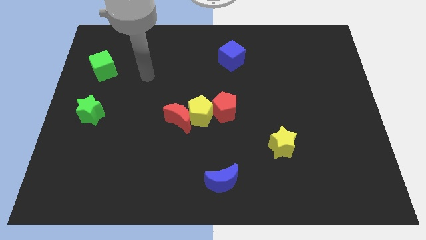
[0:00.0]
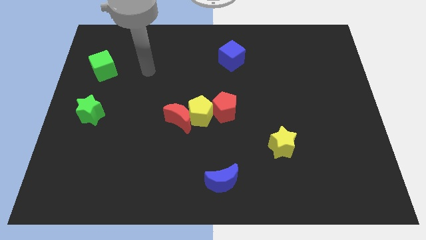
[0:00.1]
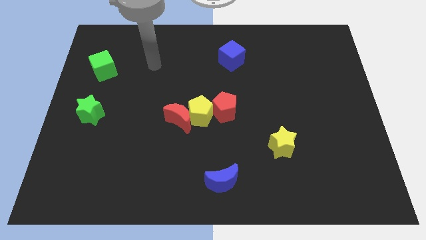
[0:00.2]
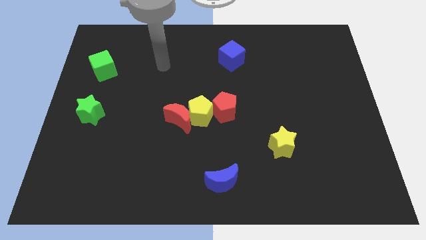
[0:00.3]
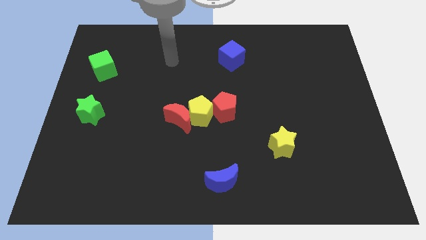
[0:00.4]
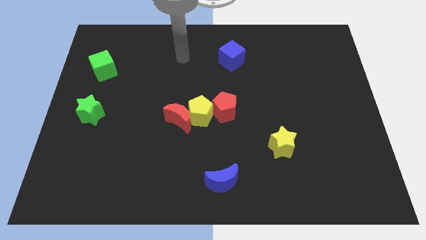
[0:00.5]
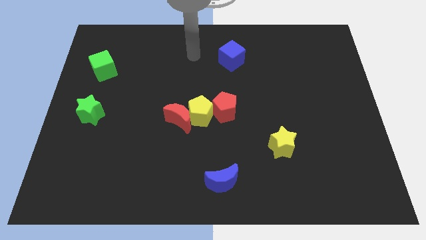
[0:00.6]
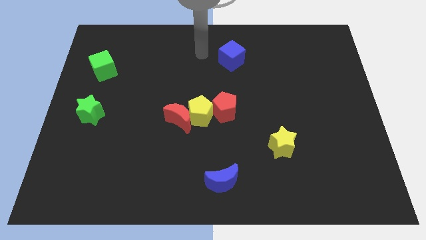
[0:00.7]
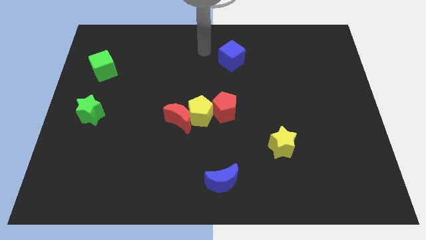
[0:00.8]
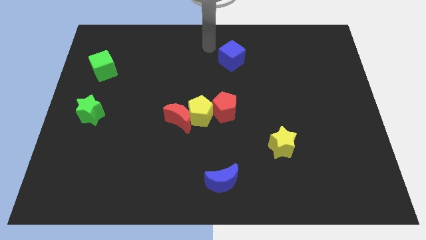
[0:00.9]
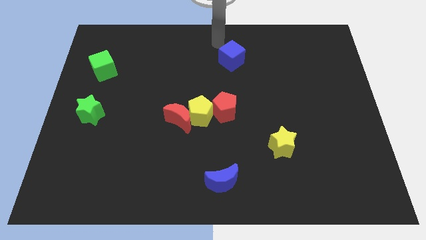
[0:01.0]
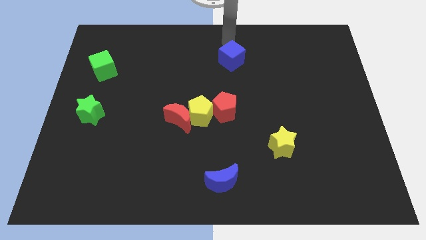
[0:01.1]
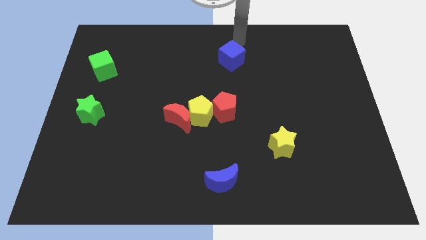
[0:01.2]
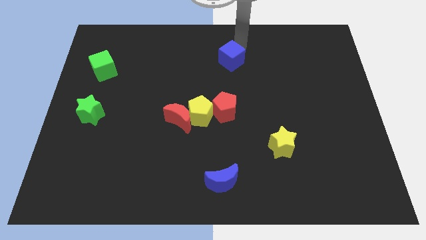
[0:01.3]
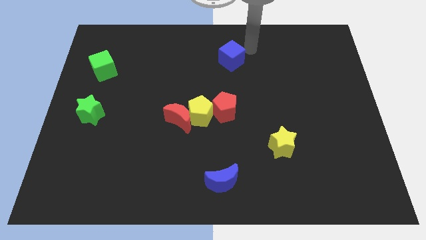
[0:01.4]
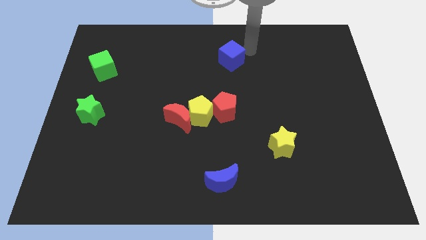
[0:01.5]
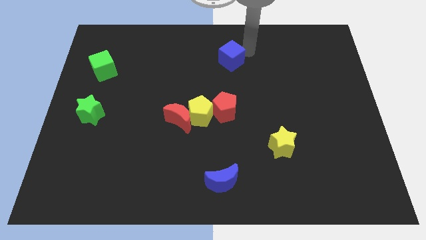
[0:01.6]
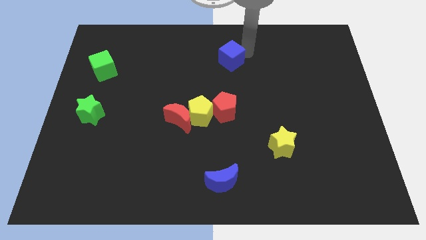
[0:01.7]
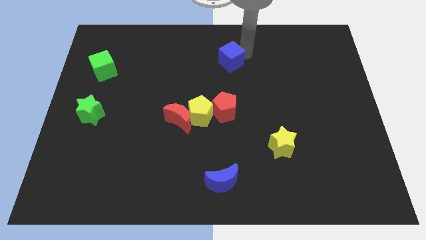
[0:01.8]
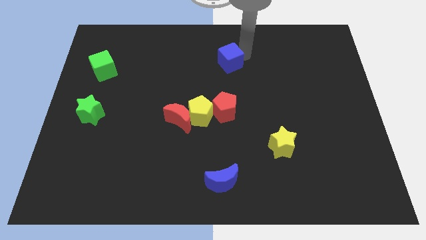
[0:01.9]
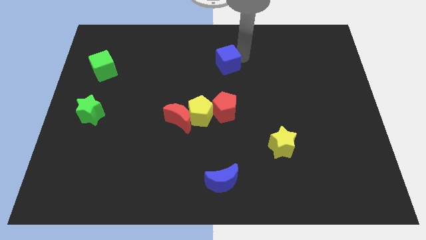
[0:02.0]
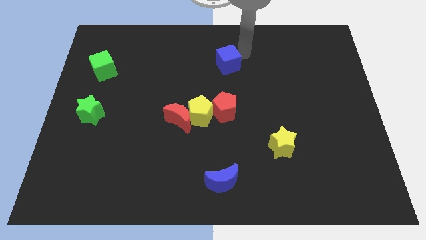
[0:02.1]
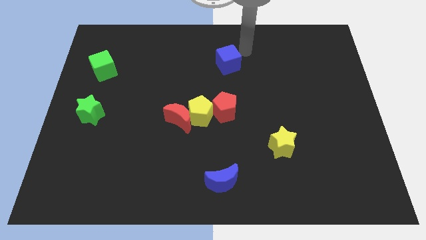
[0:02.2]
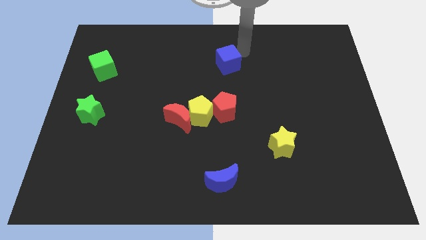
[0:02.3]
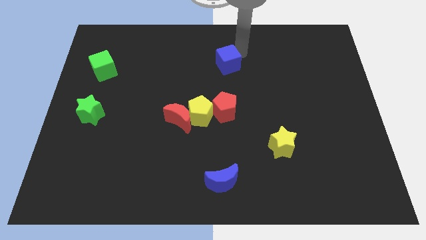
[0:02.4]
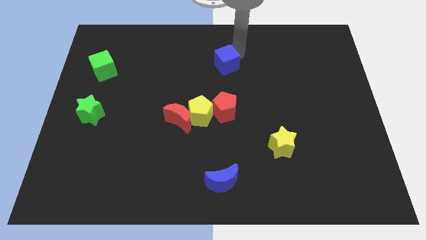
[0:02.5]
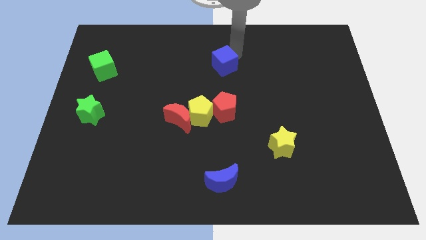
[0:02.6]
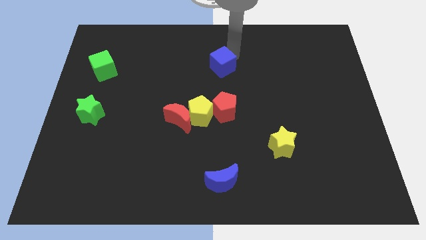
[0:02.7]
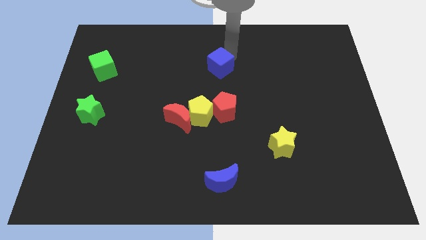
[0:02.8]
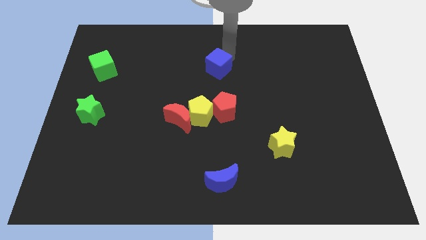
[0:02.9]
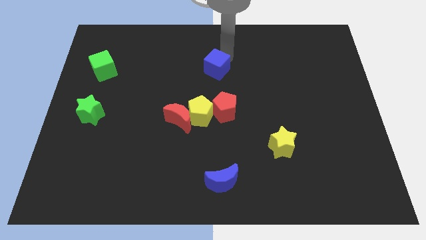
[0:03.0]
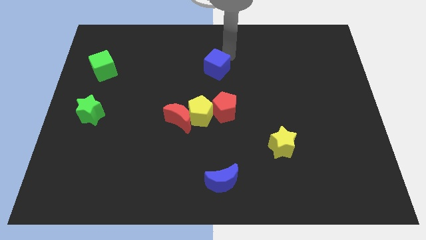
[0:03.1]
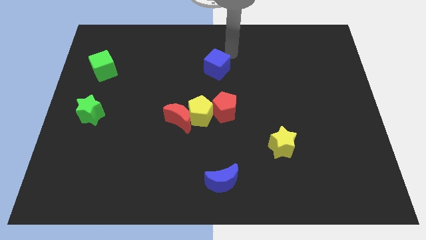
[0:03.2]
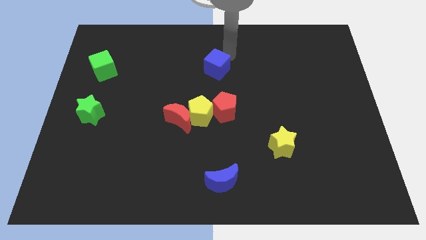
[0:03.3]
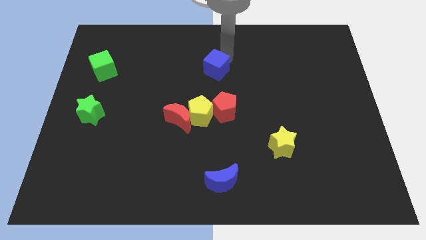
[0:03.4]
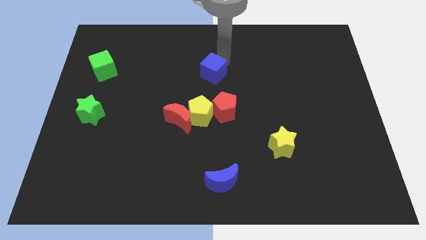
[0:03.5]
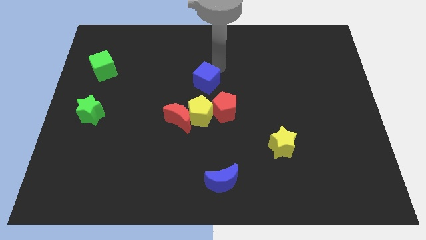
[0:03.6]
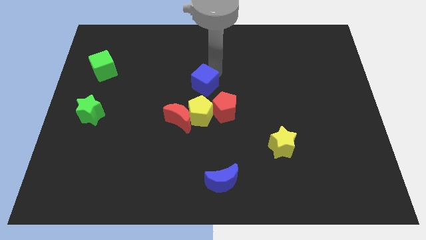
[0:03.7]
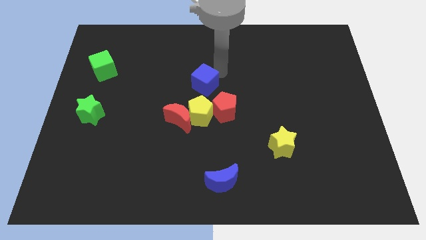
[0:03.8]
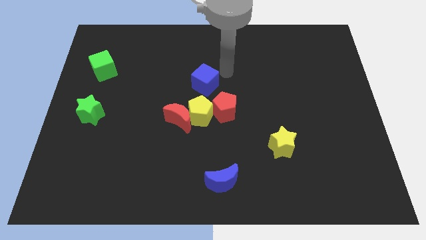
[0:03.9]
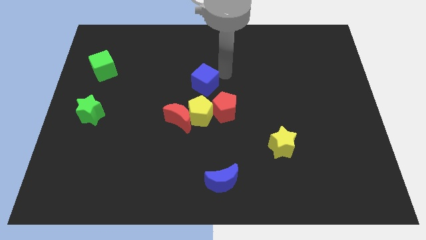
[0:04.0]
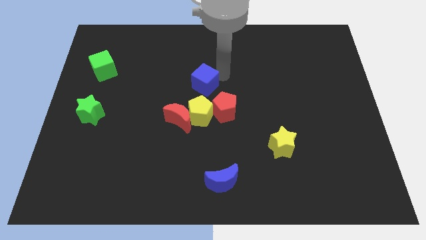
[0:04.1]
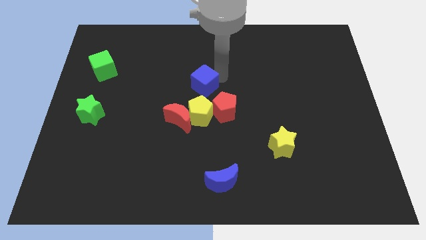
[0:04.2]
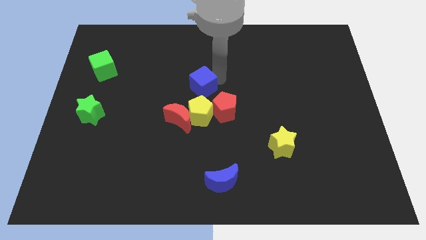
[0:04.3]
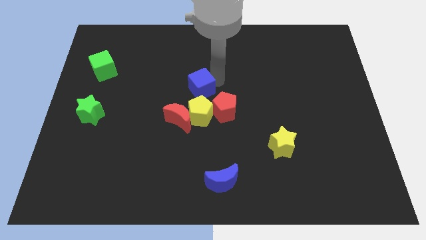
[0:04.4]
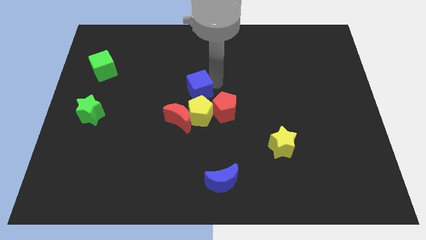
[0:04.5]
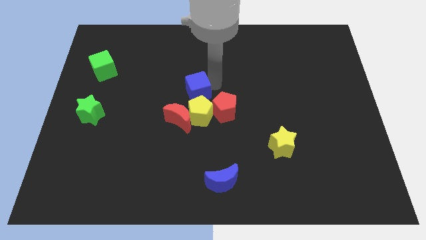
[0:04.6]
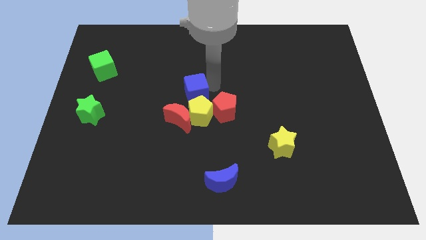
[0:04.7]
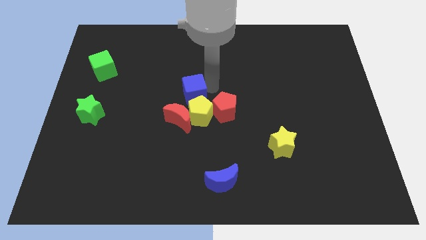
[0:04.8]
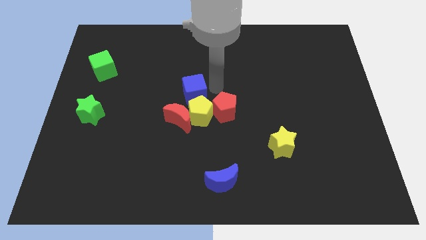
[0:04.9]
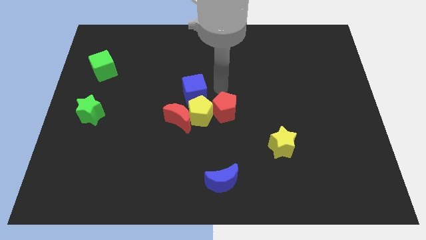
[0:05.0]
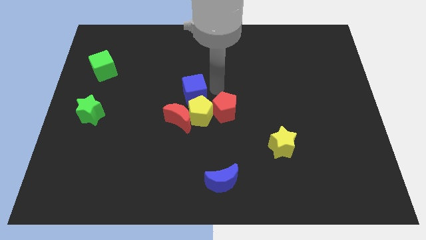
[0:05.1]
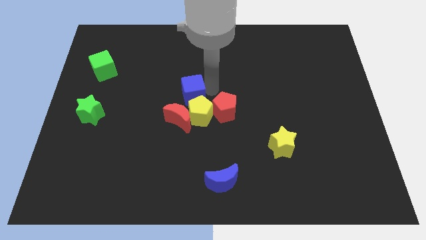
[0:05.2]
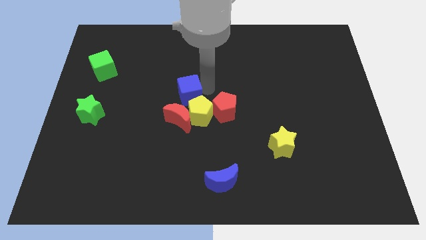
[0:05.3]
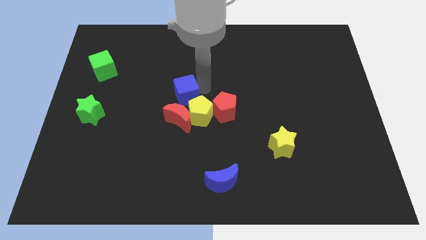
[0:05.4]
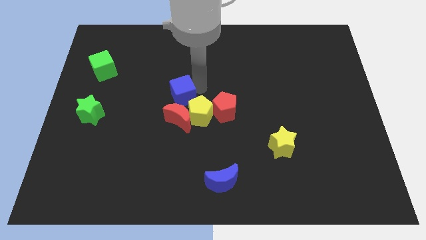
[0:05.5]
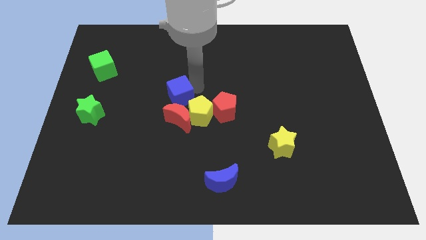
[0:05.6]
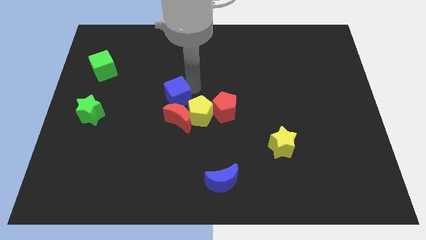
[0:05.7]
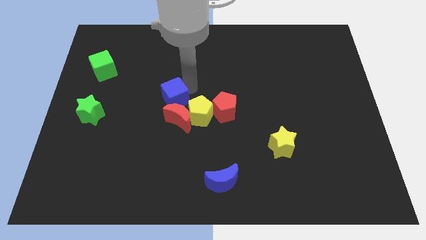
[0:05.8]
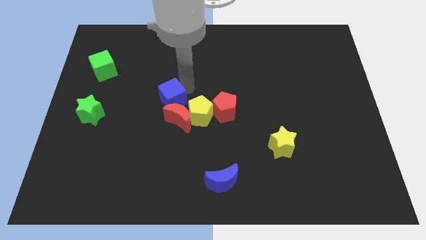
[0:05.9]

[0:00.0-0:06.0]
push the blue cube diagonally down and left

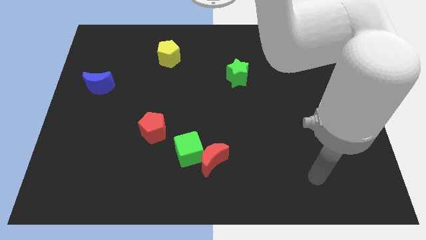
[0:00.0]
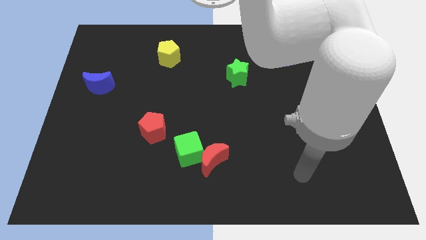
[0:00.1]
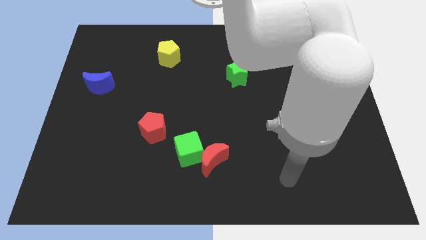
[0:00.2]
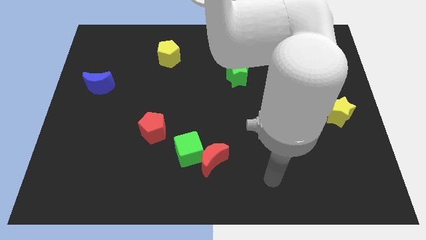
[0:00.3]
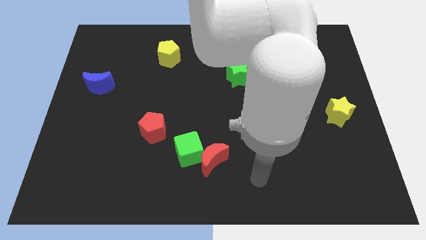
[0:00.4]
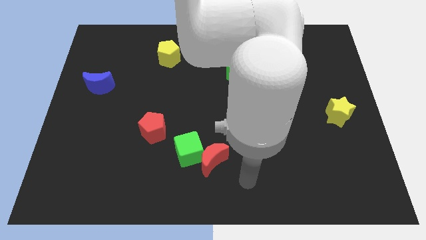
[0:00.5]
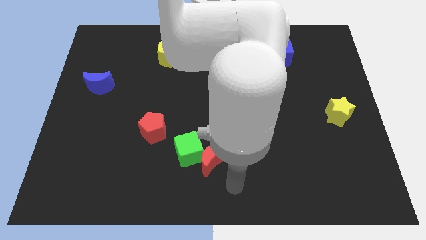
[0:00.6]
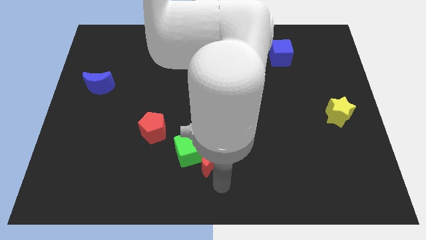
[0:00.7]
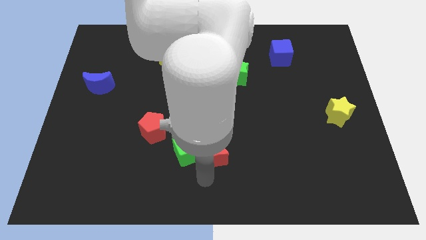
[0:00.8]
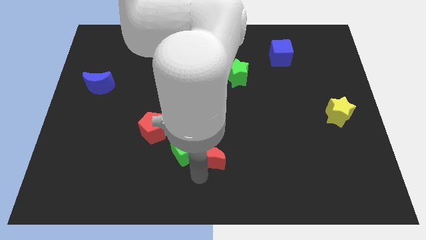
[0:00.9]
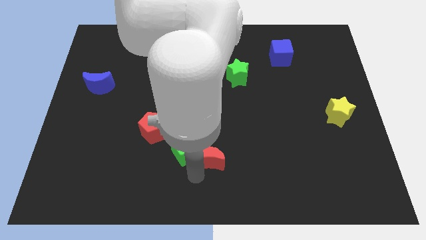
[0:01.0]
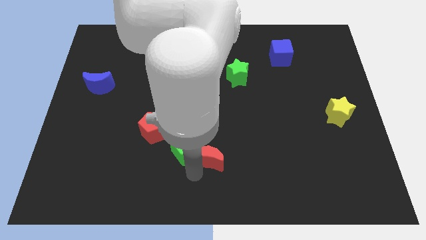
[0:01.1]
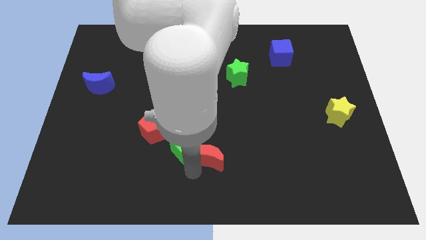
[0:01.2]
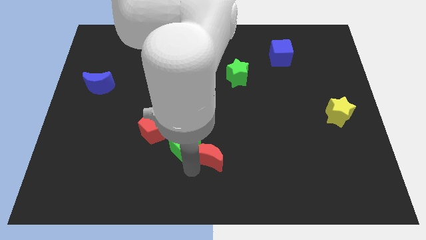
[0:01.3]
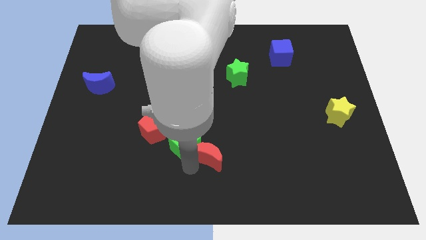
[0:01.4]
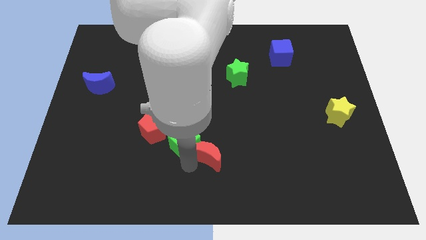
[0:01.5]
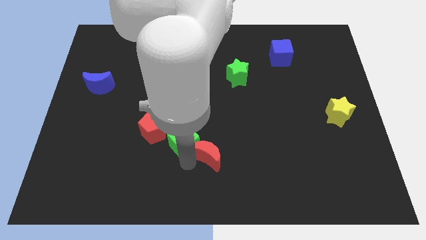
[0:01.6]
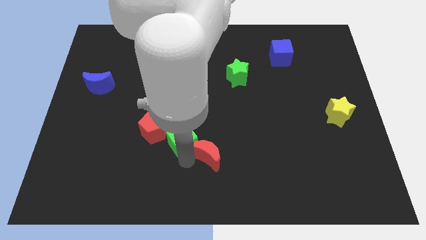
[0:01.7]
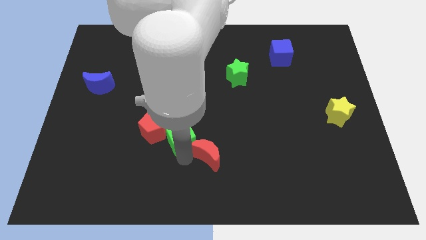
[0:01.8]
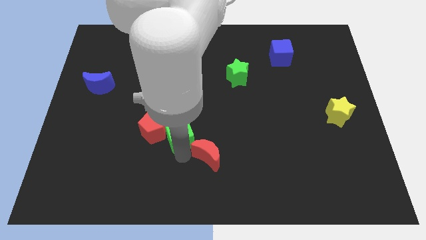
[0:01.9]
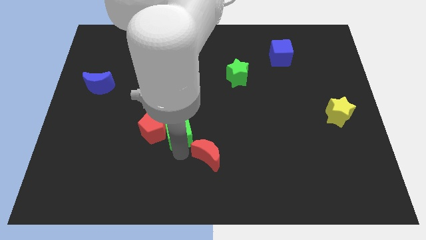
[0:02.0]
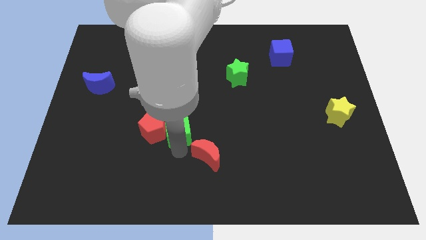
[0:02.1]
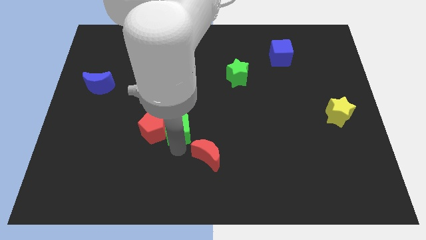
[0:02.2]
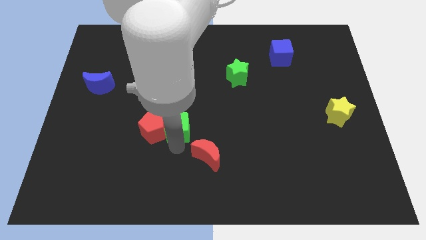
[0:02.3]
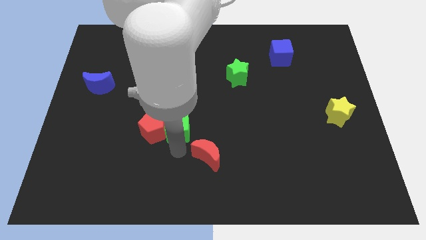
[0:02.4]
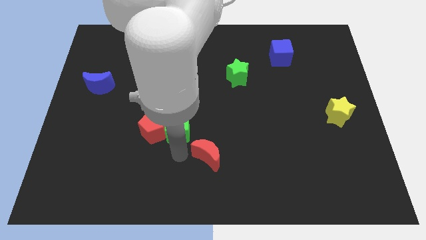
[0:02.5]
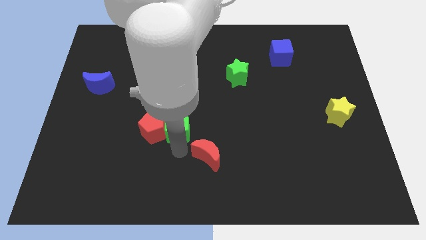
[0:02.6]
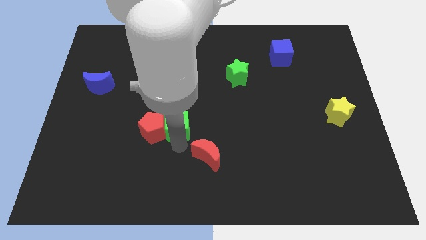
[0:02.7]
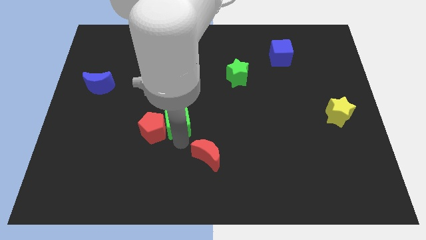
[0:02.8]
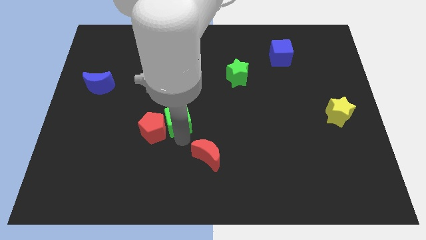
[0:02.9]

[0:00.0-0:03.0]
slightly move the green cube upwards and to the left
